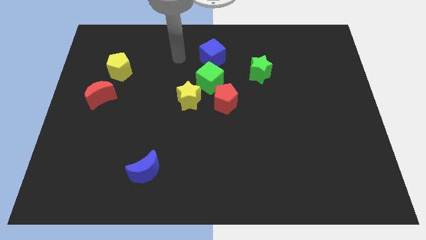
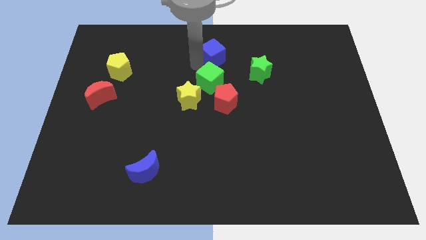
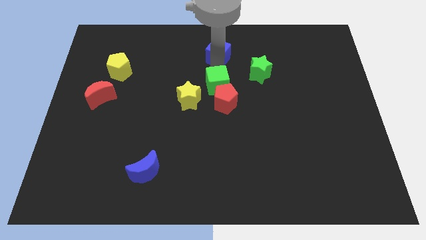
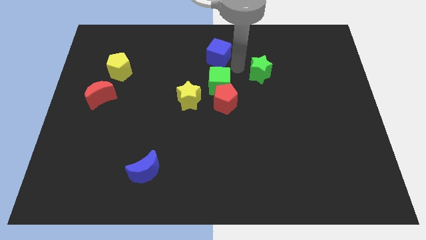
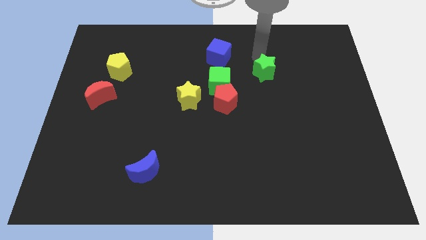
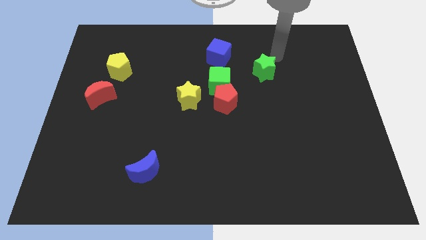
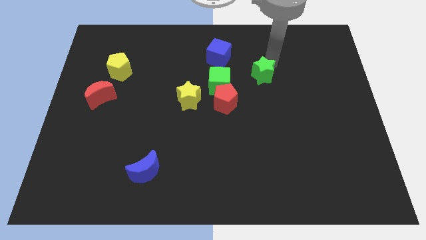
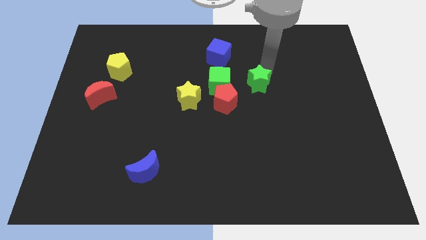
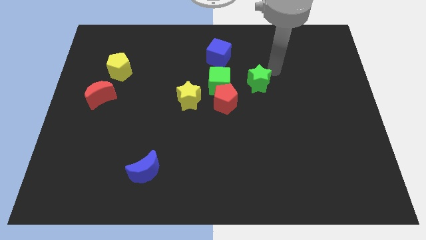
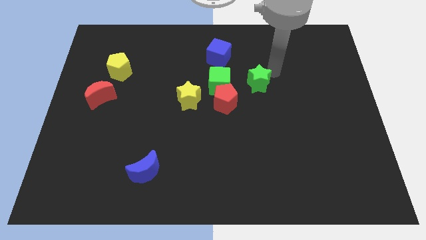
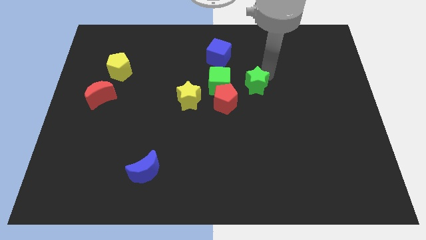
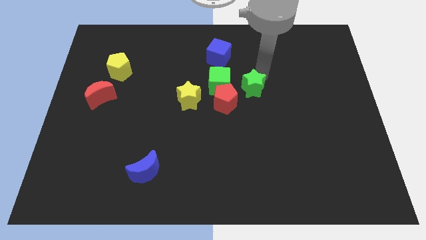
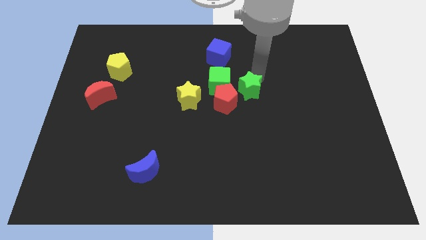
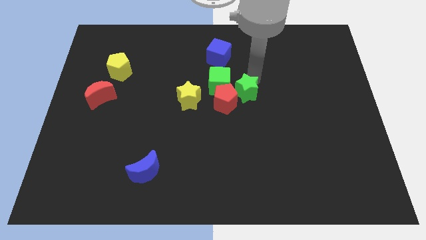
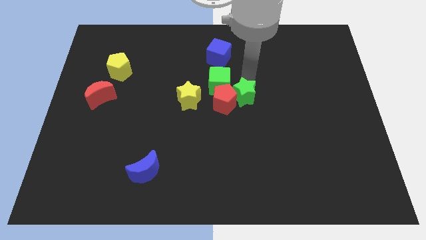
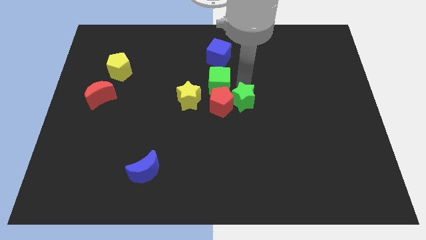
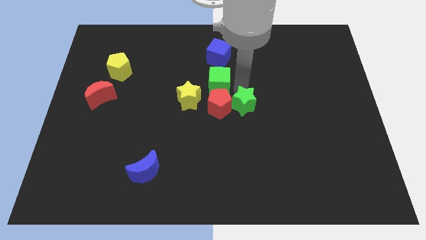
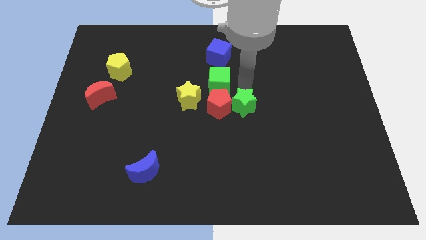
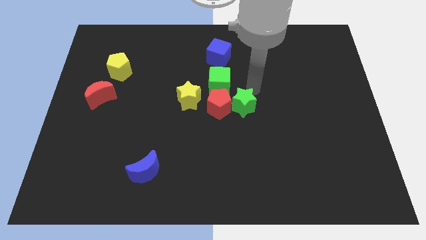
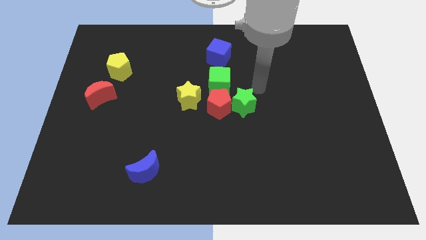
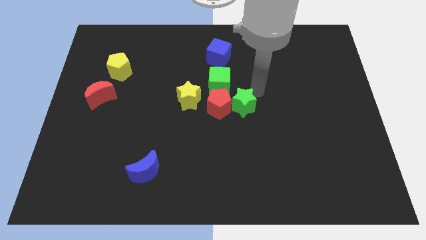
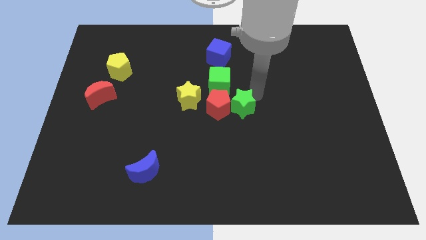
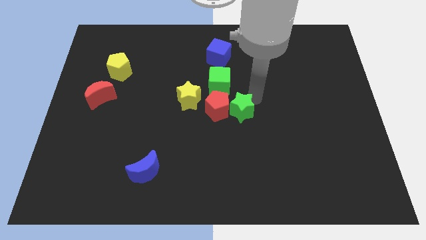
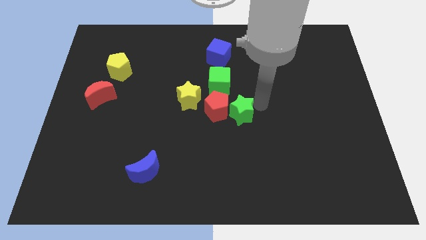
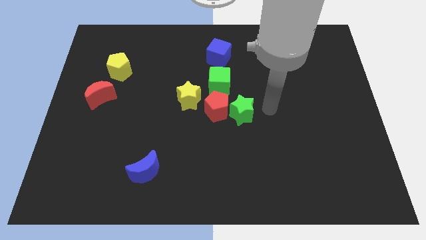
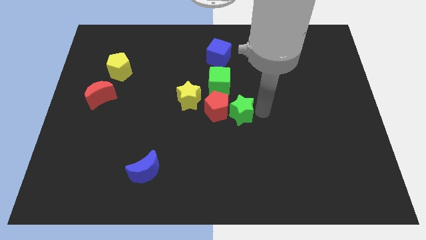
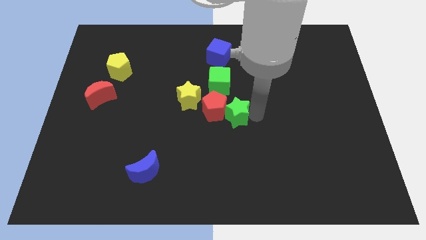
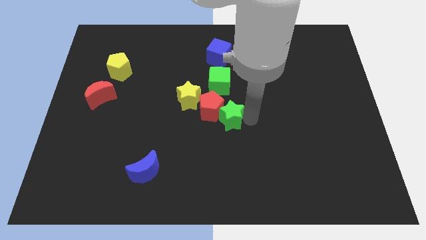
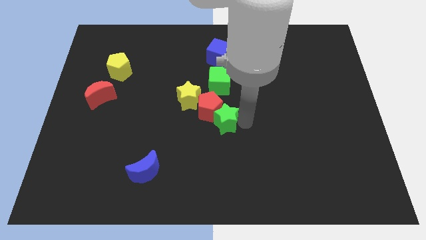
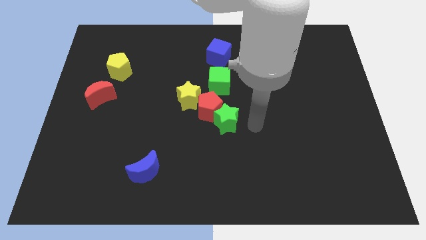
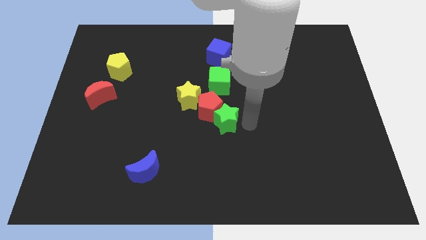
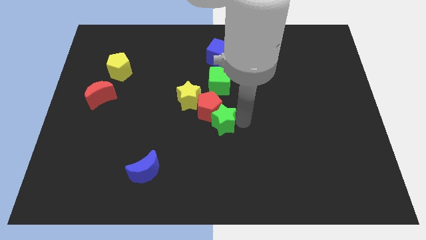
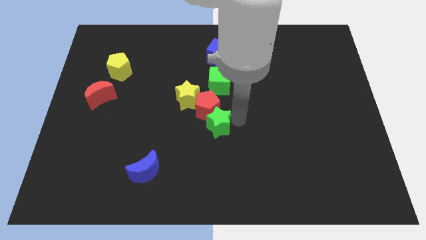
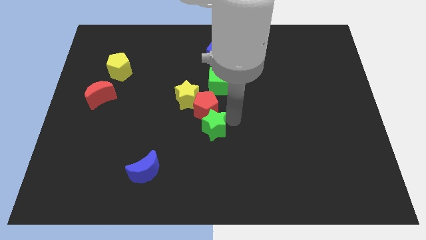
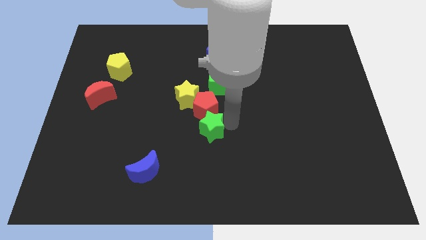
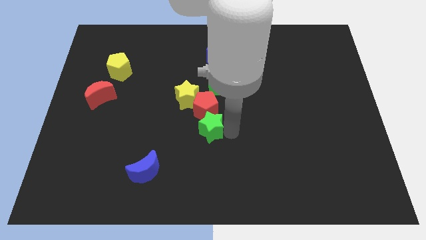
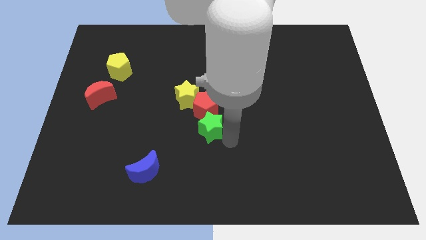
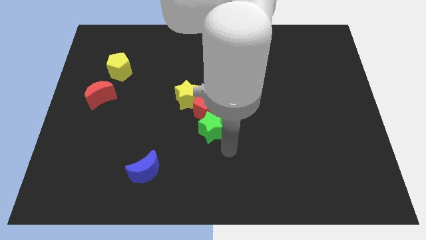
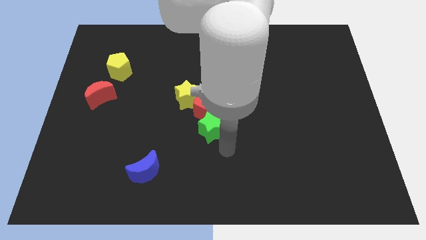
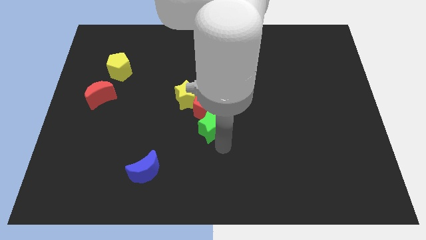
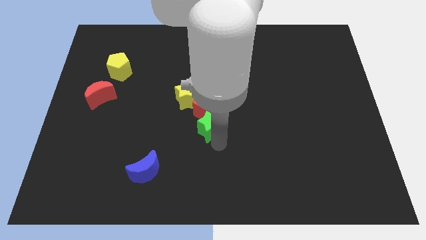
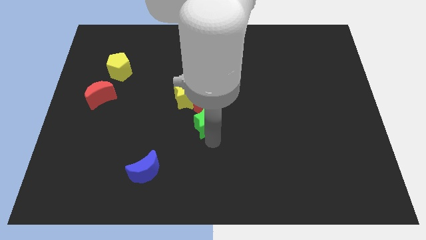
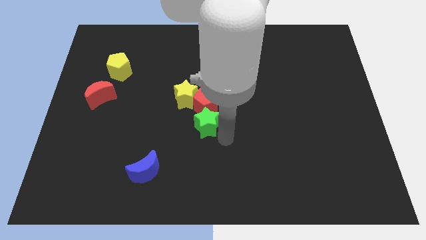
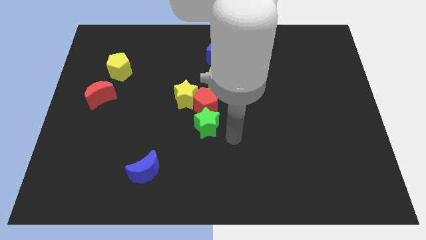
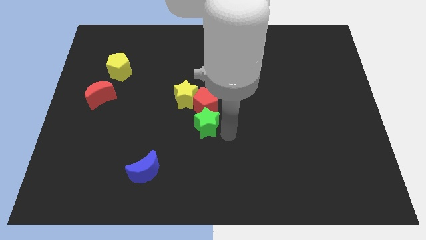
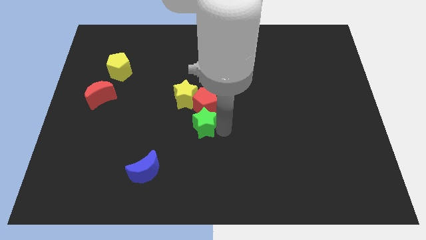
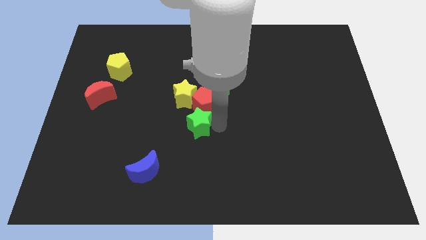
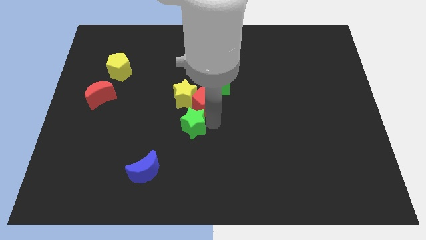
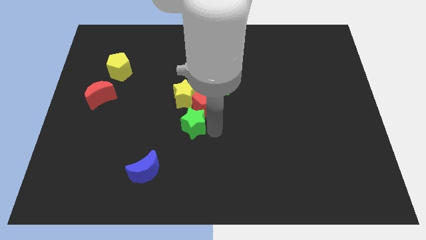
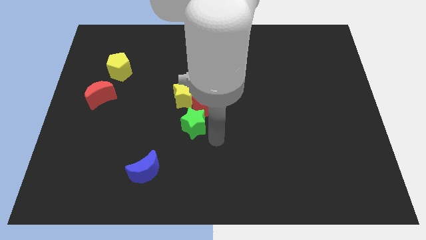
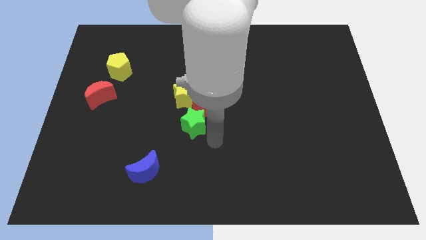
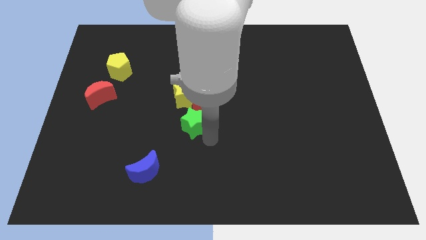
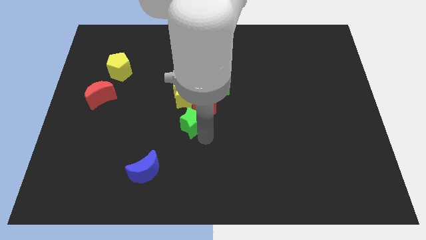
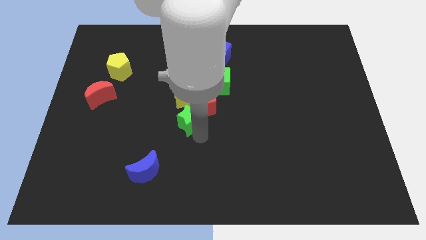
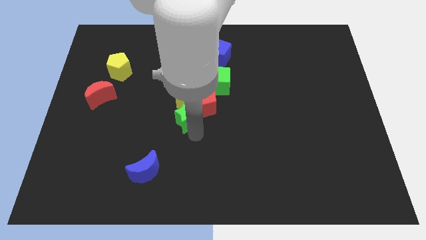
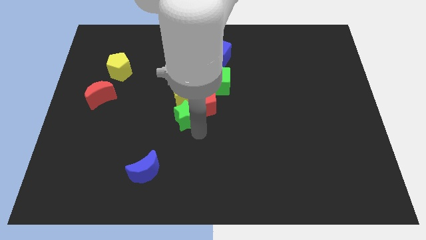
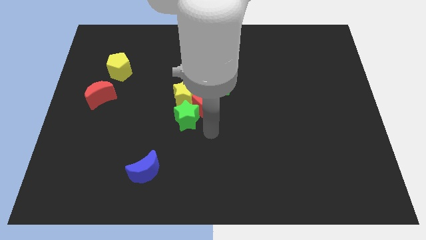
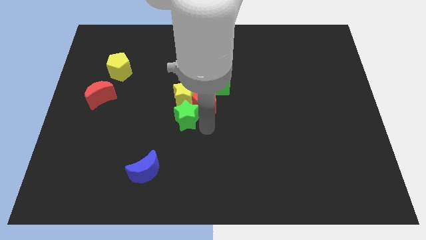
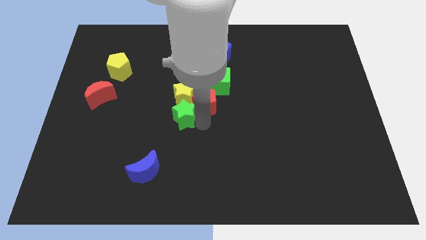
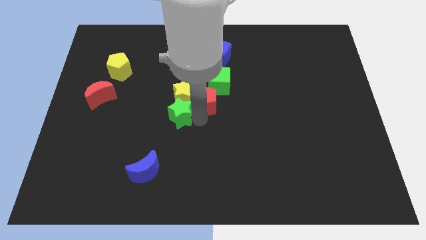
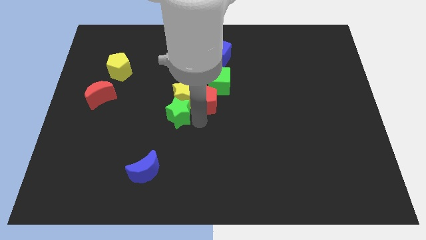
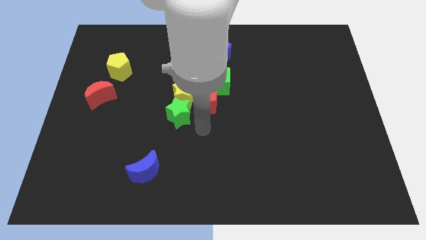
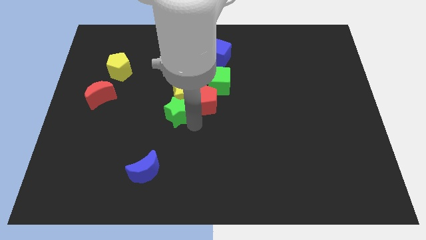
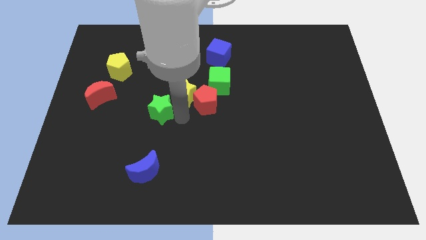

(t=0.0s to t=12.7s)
put the green star to the left of the yellow star

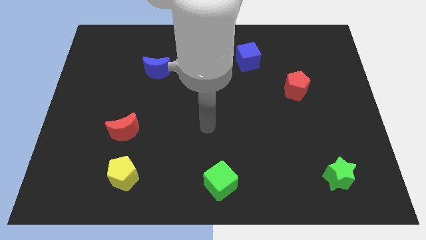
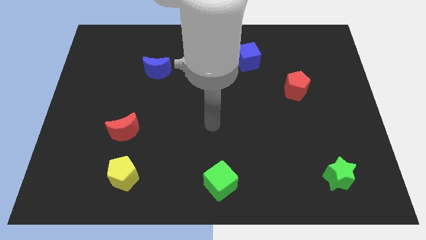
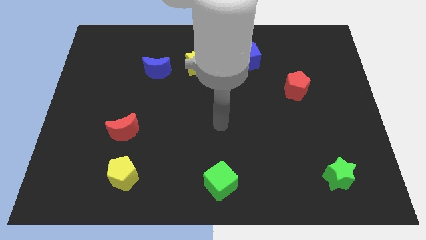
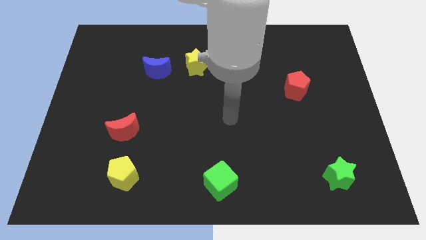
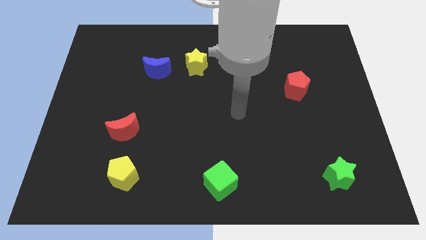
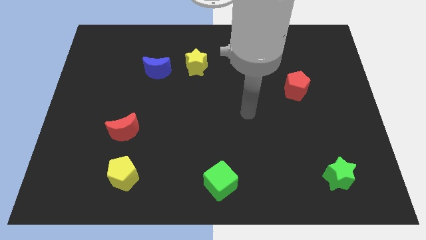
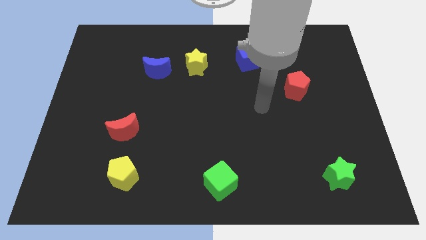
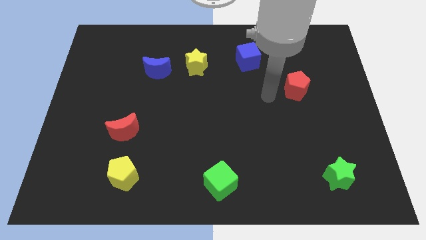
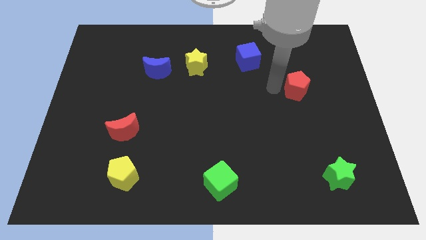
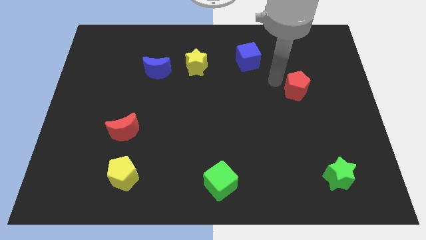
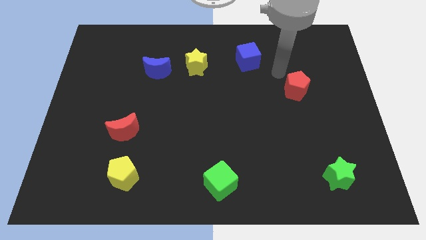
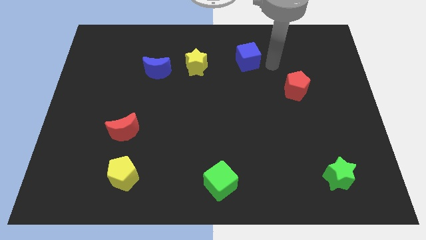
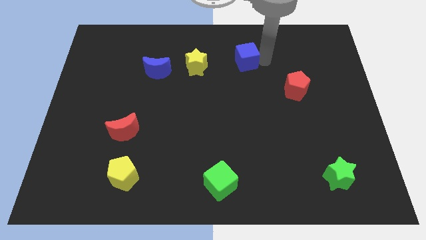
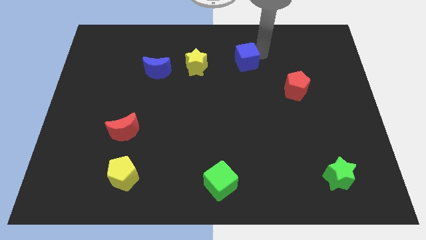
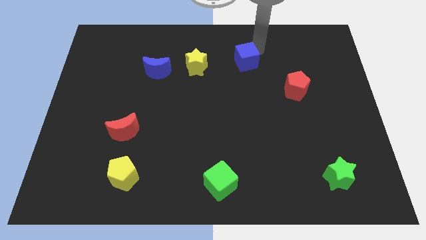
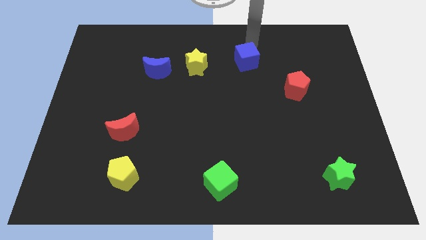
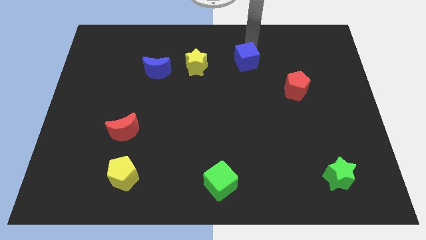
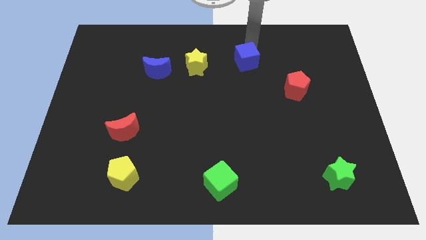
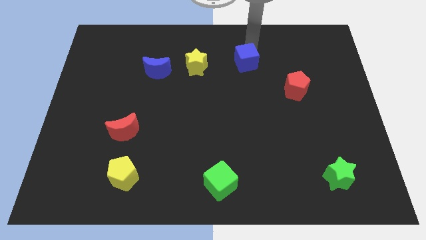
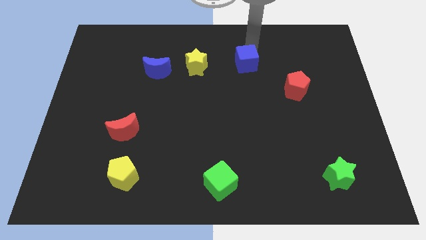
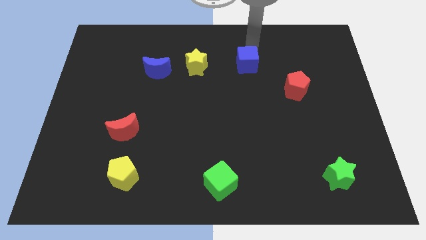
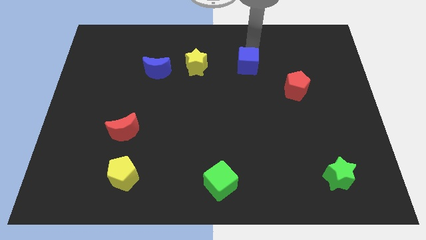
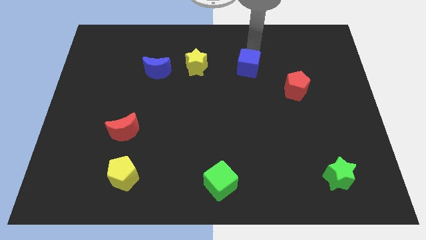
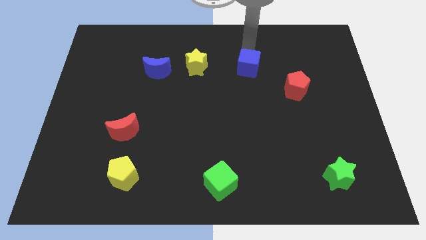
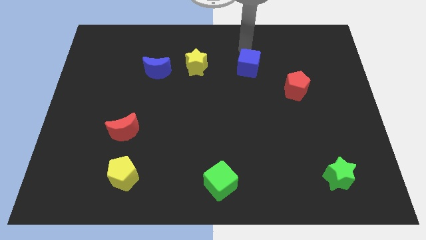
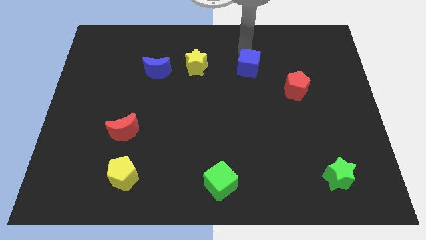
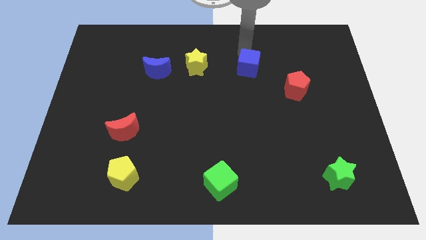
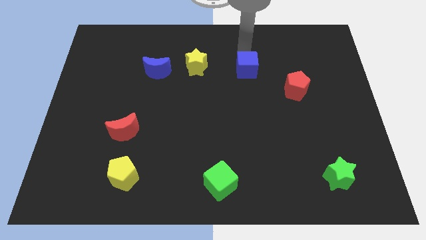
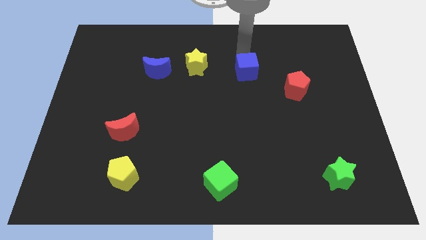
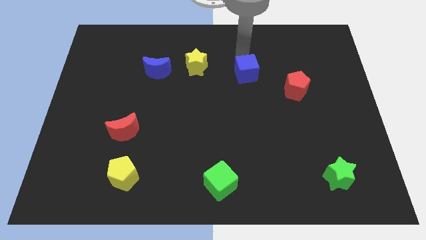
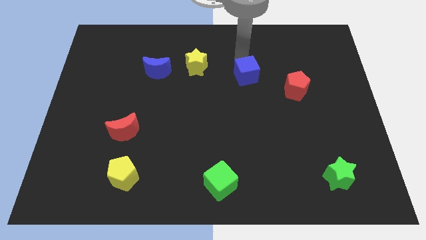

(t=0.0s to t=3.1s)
put the blue cube just left of the red pentagon
